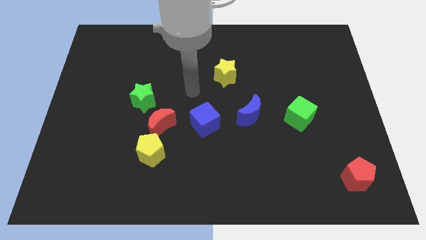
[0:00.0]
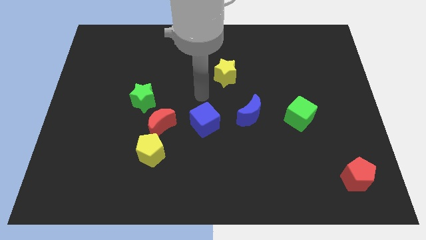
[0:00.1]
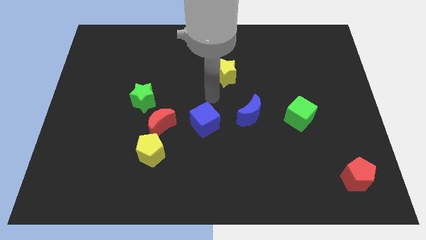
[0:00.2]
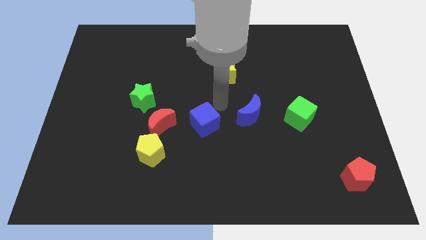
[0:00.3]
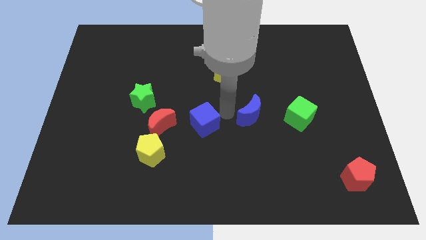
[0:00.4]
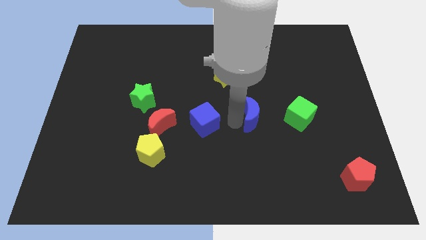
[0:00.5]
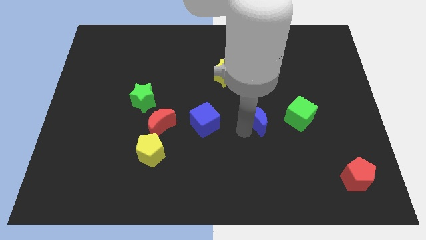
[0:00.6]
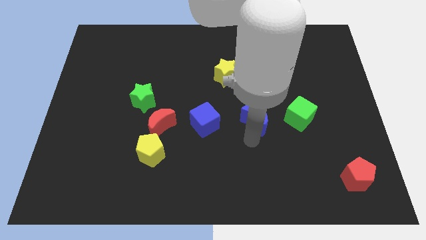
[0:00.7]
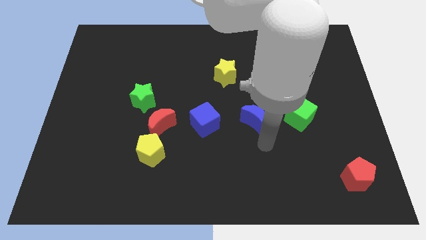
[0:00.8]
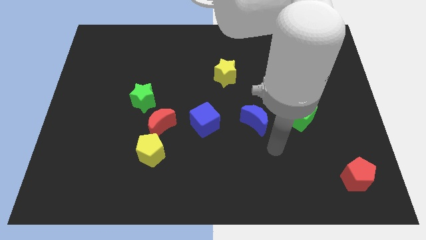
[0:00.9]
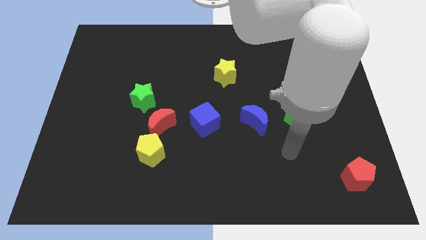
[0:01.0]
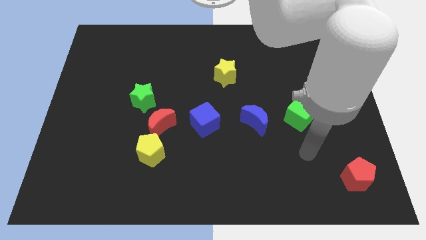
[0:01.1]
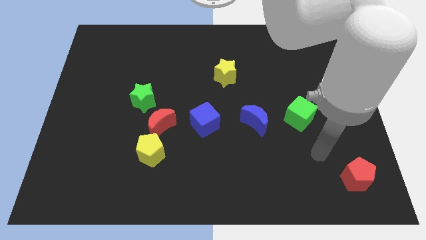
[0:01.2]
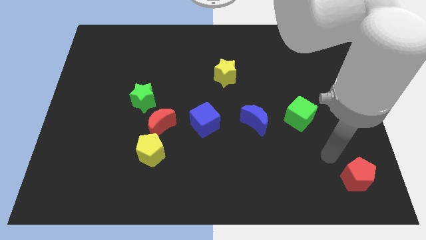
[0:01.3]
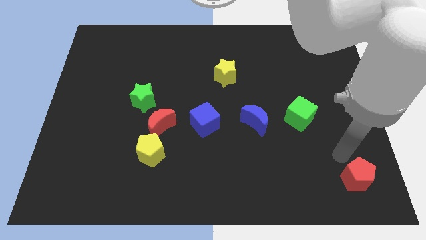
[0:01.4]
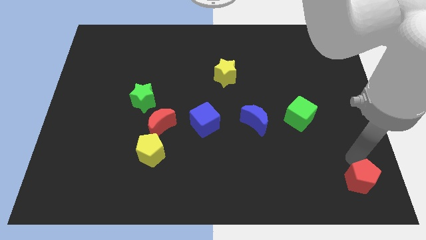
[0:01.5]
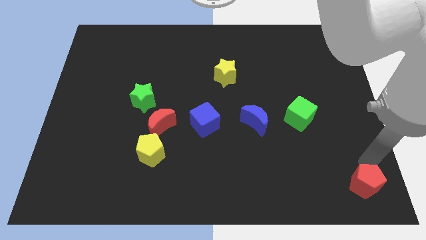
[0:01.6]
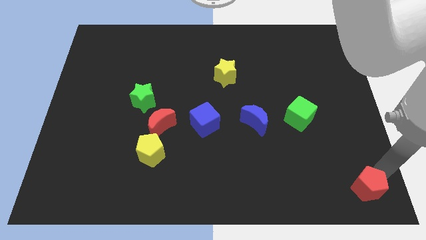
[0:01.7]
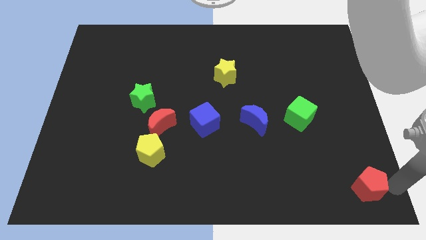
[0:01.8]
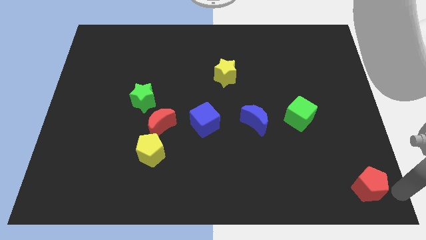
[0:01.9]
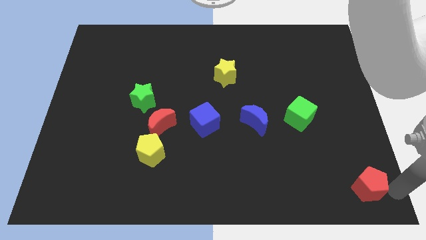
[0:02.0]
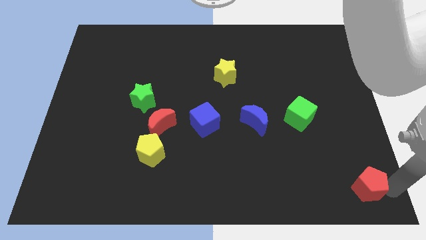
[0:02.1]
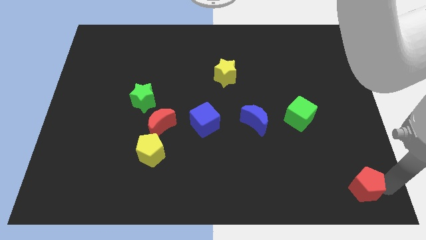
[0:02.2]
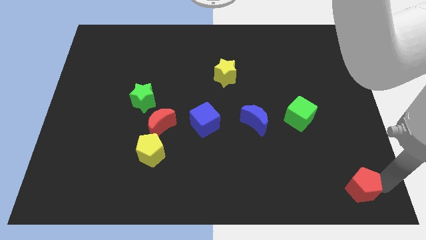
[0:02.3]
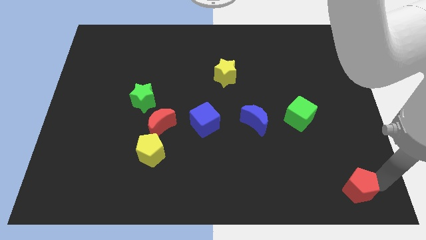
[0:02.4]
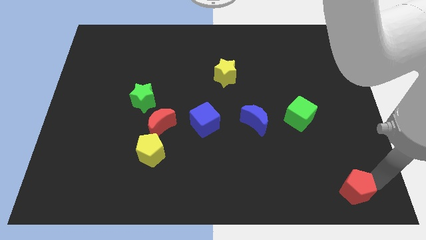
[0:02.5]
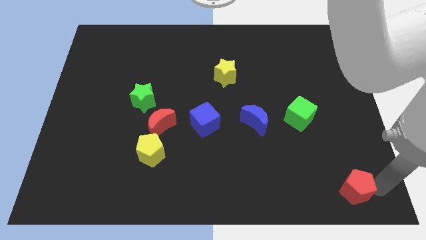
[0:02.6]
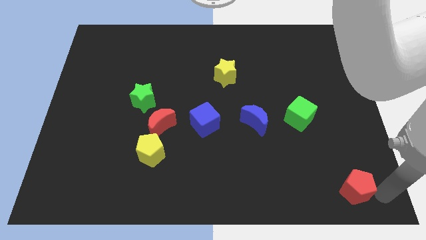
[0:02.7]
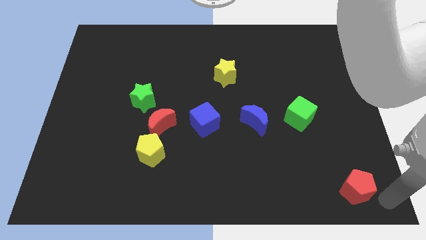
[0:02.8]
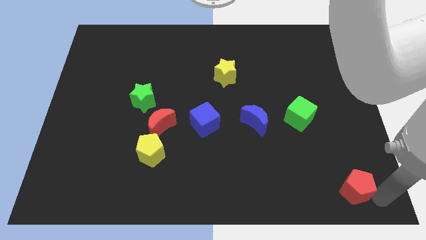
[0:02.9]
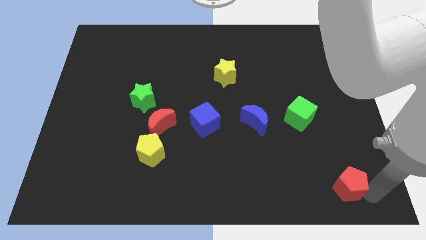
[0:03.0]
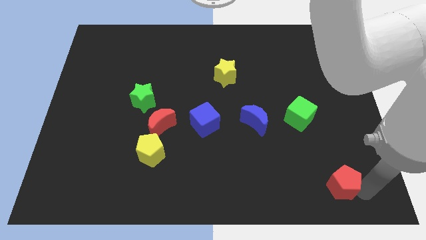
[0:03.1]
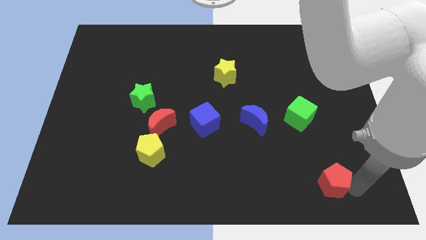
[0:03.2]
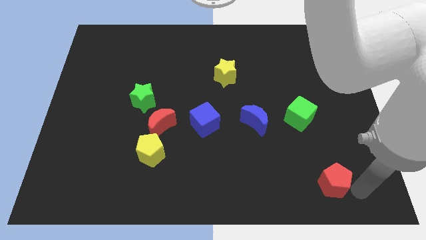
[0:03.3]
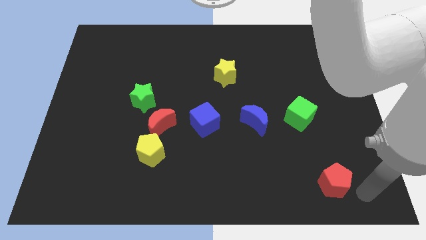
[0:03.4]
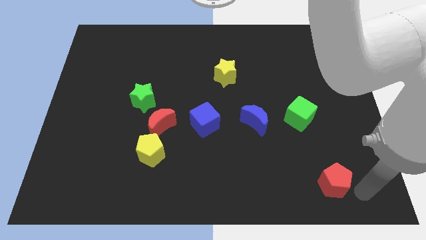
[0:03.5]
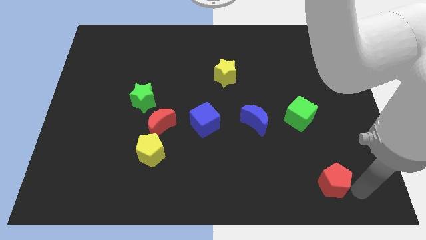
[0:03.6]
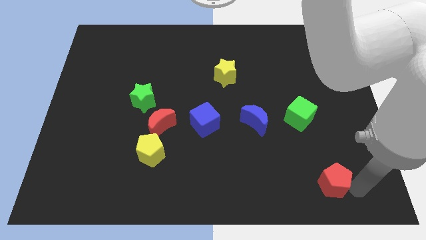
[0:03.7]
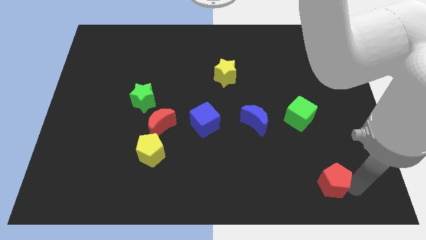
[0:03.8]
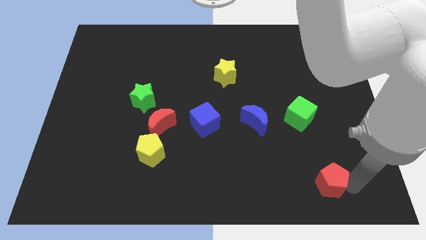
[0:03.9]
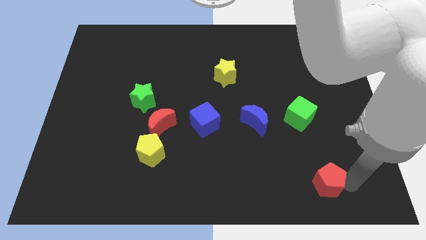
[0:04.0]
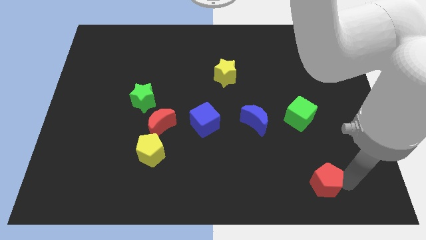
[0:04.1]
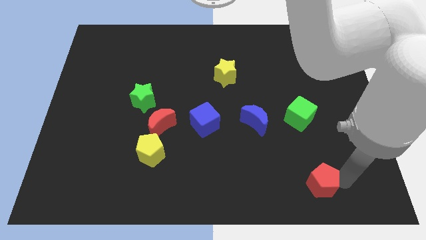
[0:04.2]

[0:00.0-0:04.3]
push the red pentagon slightly left

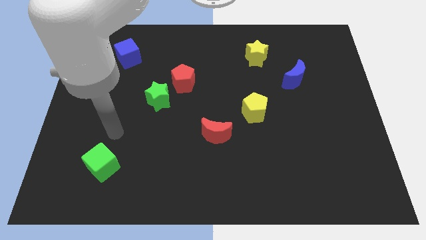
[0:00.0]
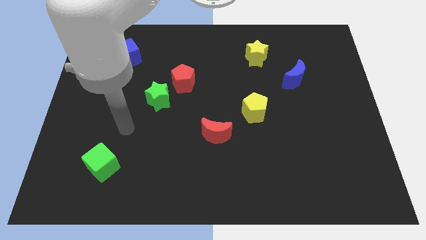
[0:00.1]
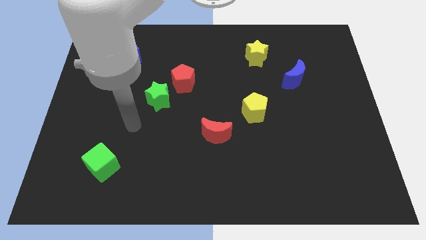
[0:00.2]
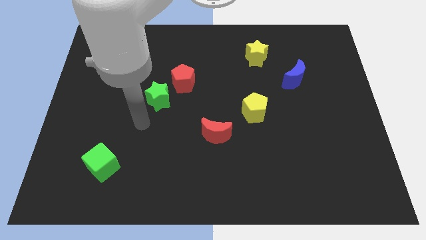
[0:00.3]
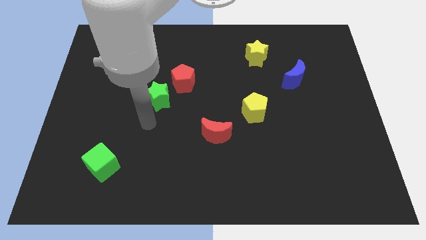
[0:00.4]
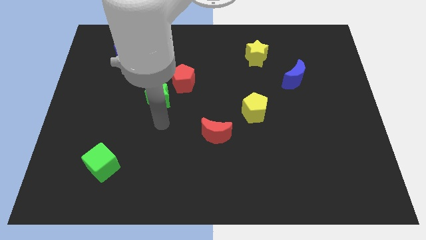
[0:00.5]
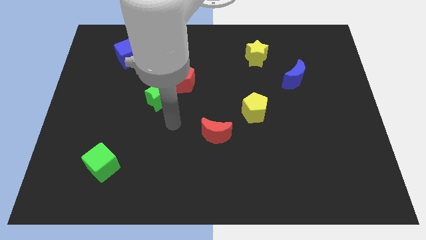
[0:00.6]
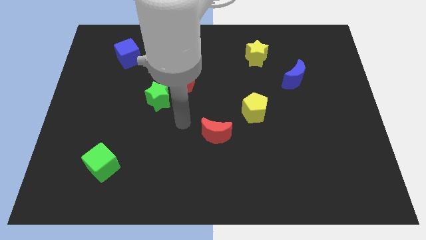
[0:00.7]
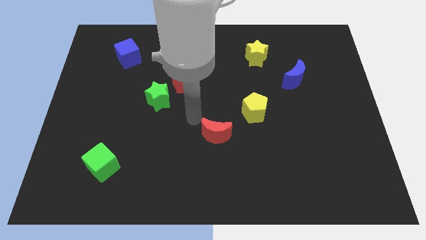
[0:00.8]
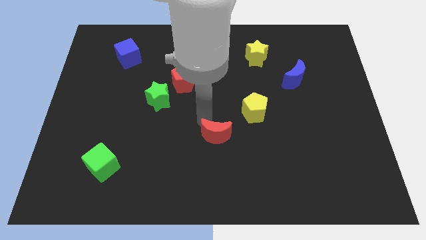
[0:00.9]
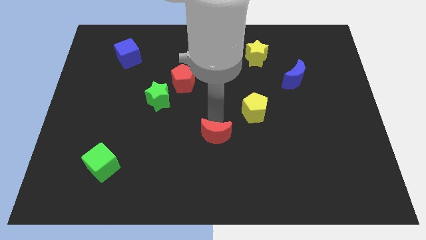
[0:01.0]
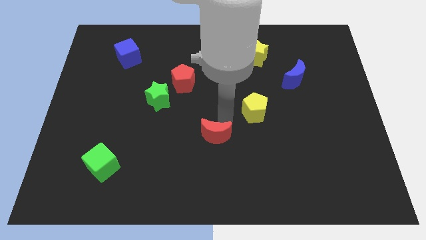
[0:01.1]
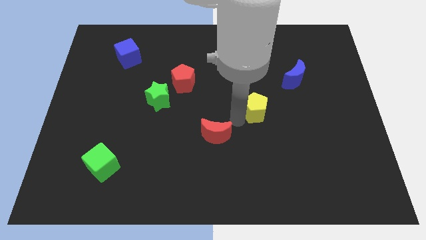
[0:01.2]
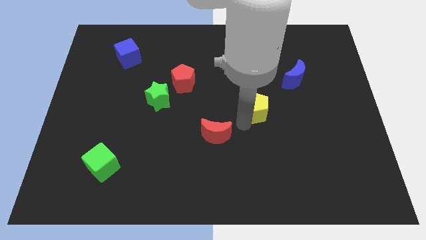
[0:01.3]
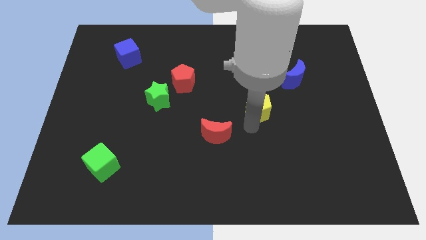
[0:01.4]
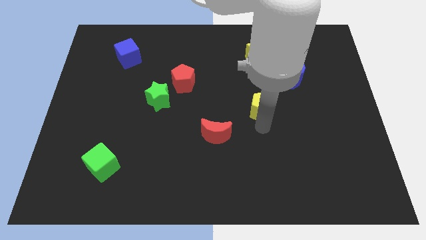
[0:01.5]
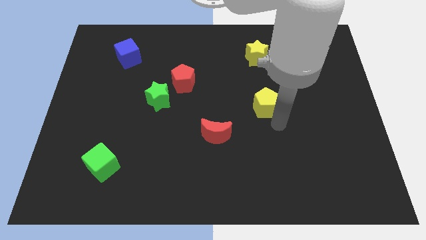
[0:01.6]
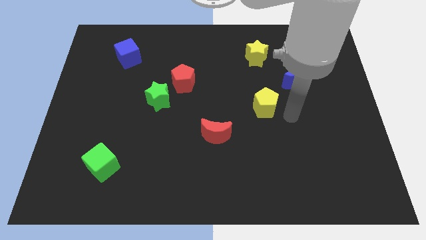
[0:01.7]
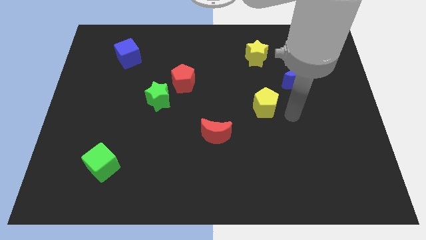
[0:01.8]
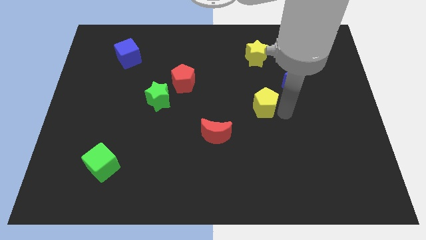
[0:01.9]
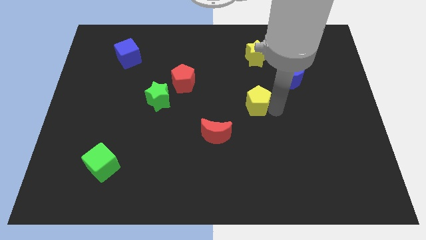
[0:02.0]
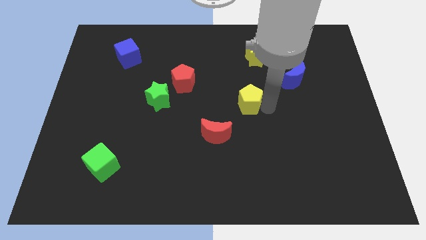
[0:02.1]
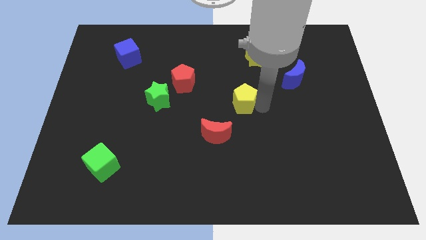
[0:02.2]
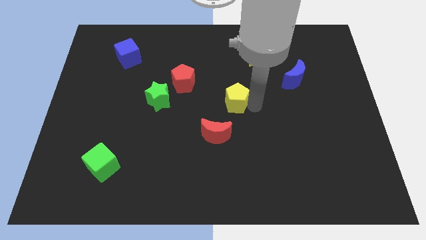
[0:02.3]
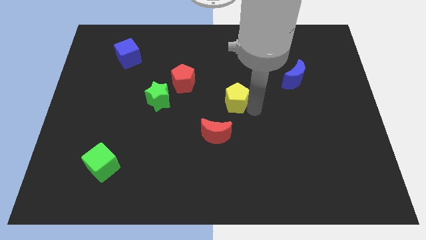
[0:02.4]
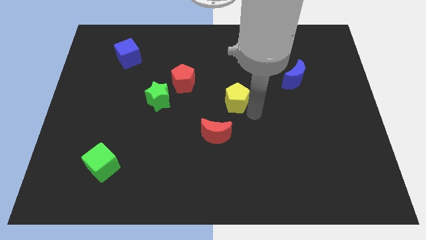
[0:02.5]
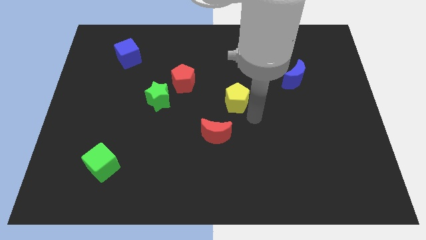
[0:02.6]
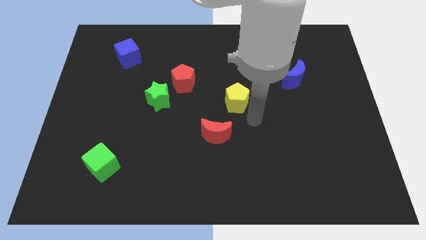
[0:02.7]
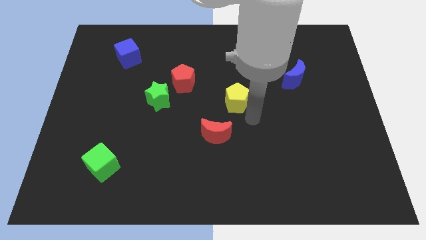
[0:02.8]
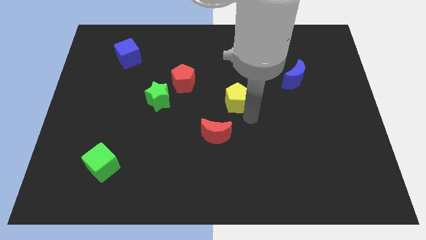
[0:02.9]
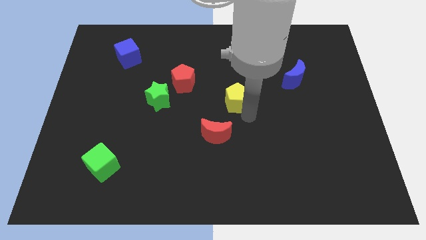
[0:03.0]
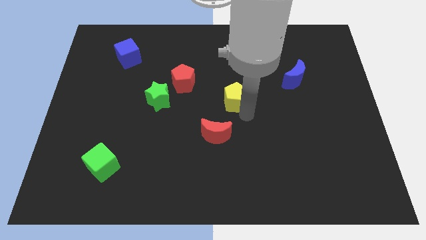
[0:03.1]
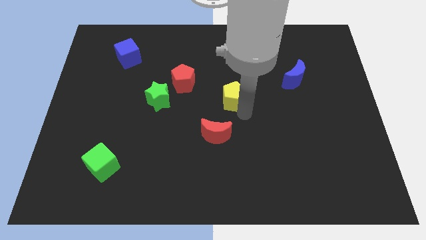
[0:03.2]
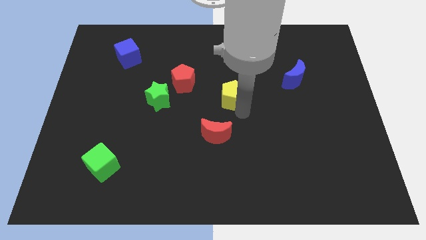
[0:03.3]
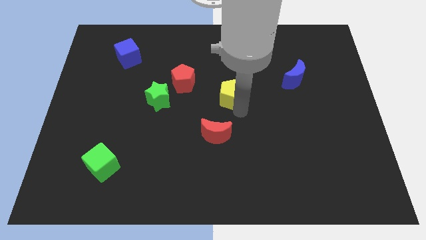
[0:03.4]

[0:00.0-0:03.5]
slide the yellow pentagon a little diagonally upwards and left
